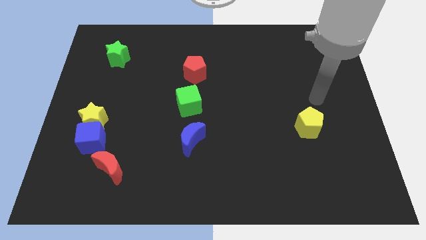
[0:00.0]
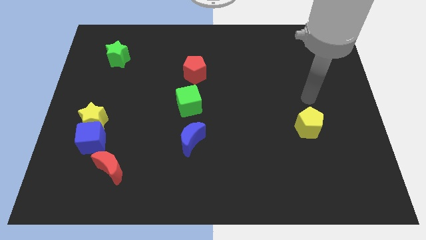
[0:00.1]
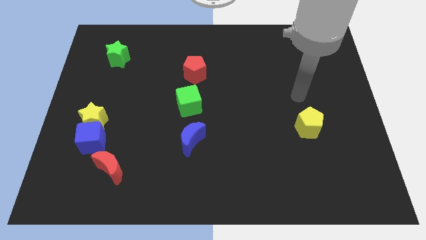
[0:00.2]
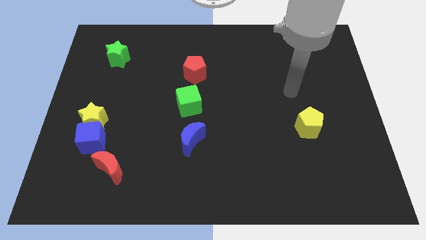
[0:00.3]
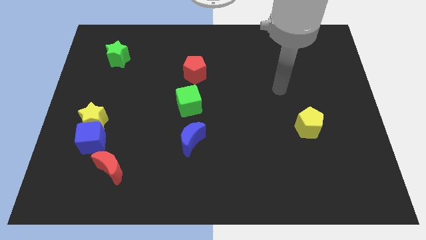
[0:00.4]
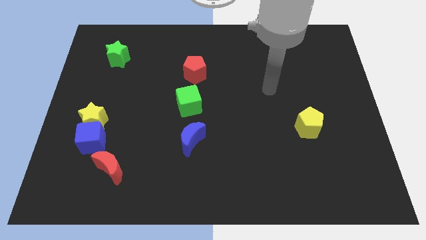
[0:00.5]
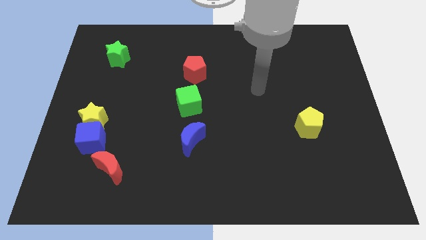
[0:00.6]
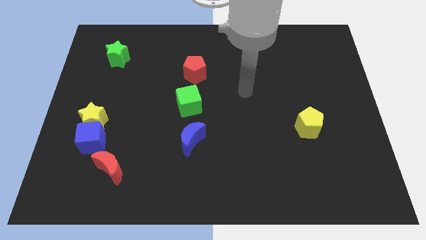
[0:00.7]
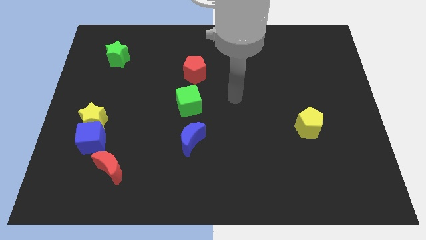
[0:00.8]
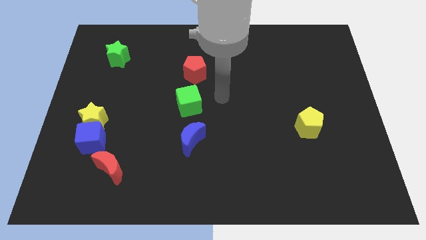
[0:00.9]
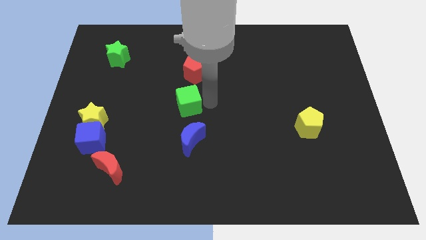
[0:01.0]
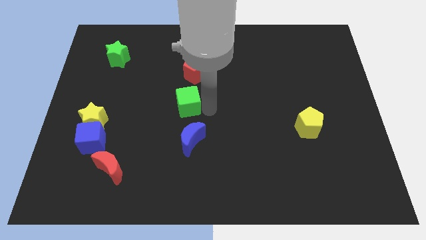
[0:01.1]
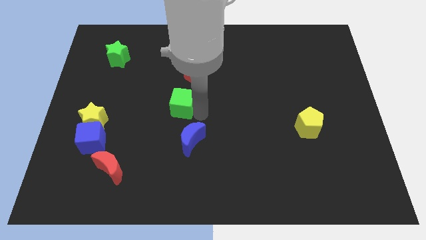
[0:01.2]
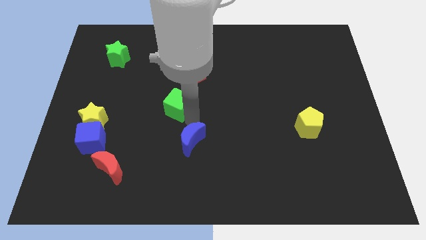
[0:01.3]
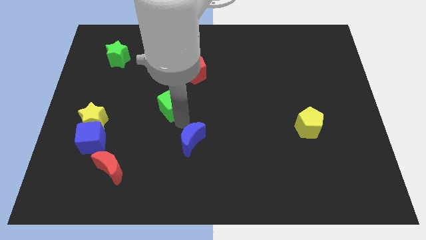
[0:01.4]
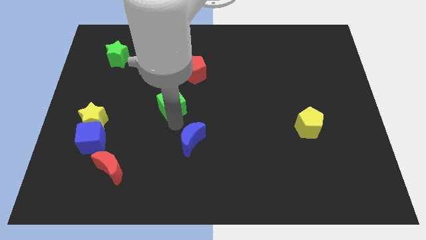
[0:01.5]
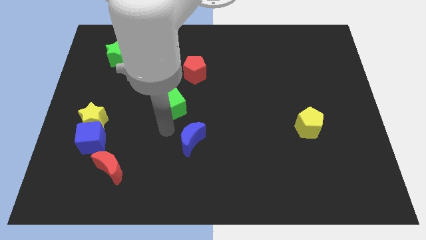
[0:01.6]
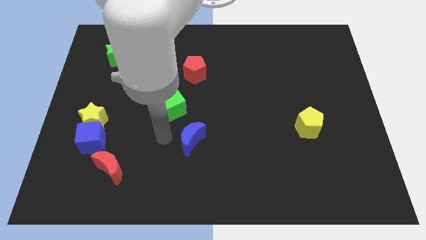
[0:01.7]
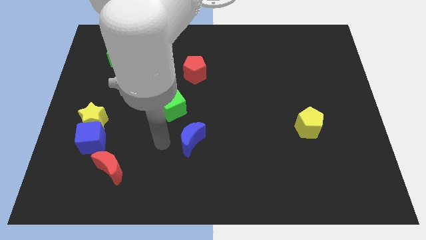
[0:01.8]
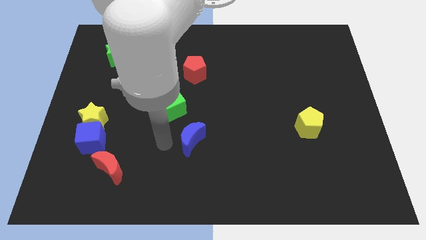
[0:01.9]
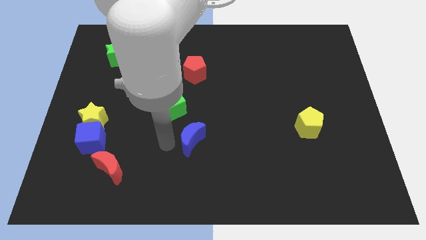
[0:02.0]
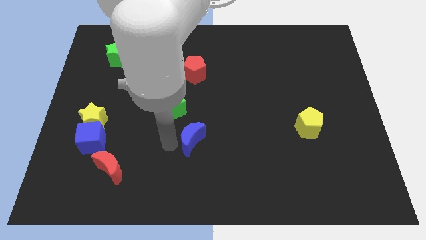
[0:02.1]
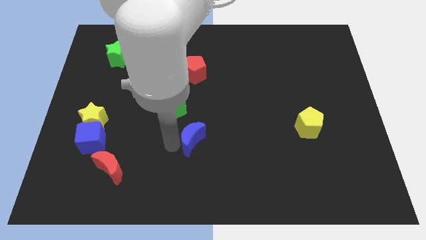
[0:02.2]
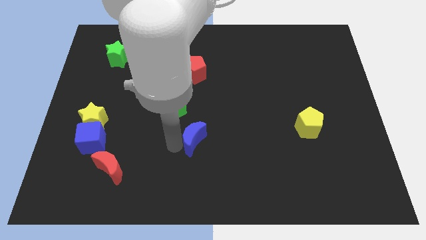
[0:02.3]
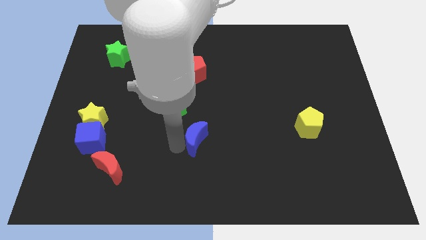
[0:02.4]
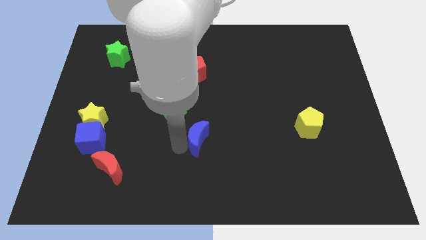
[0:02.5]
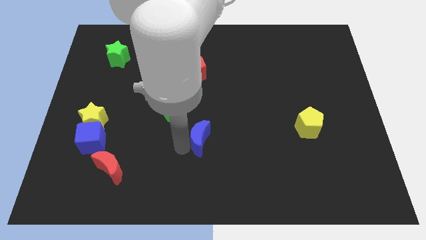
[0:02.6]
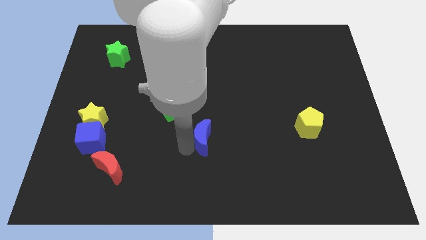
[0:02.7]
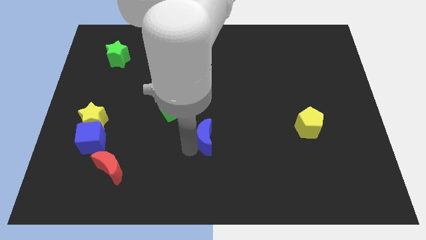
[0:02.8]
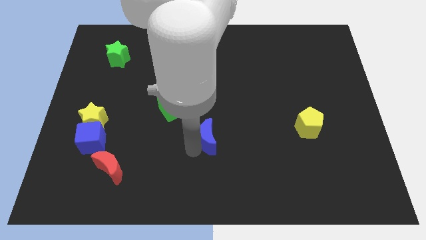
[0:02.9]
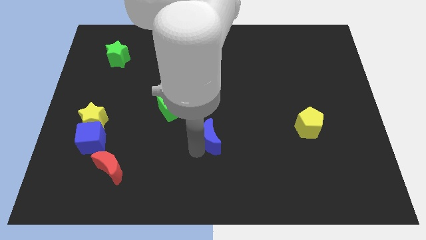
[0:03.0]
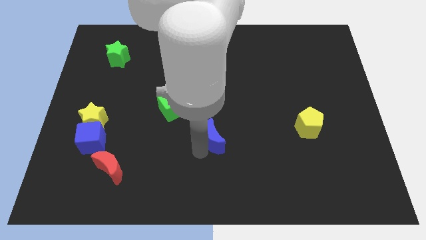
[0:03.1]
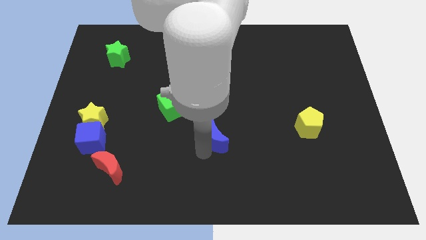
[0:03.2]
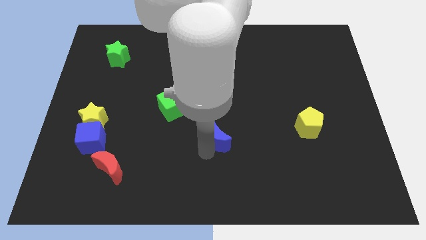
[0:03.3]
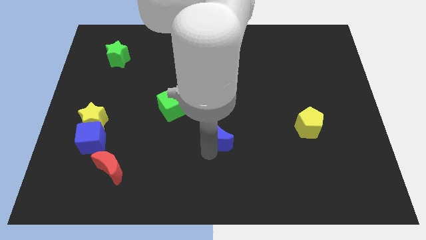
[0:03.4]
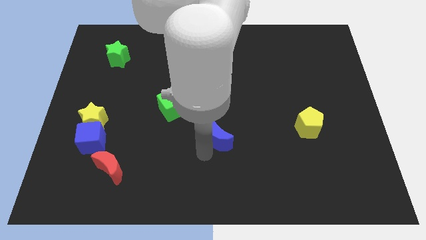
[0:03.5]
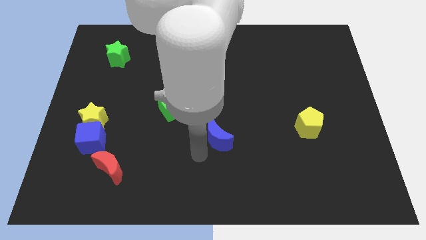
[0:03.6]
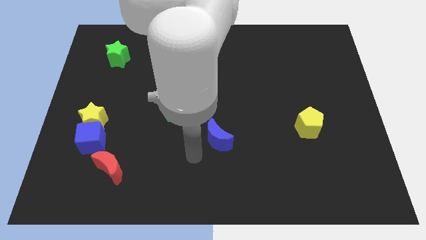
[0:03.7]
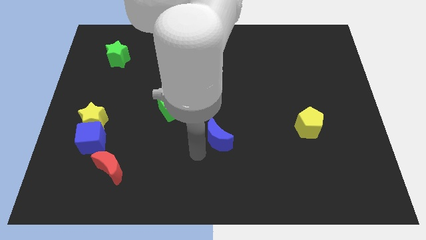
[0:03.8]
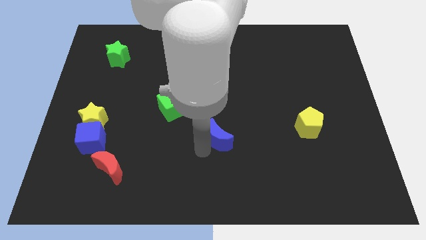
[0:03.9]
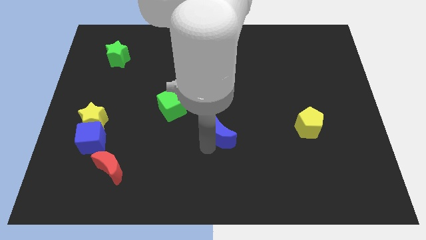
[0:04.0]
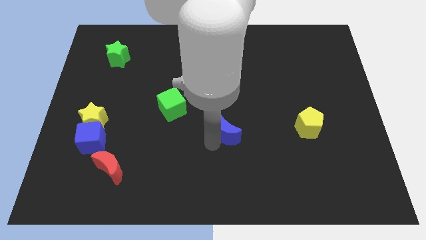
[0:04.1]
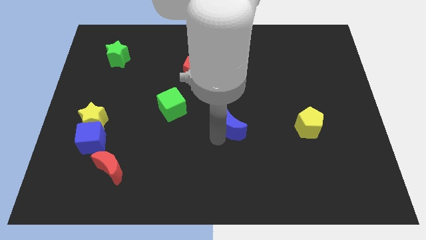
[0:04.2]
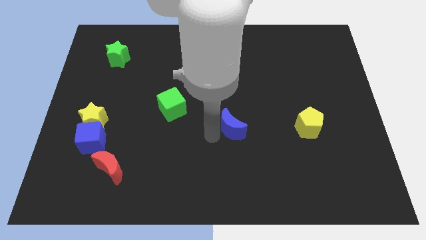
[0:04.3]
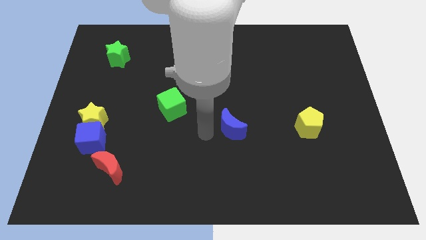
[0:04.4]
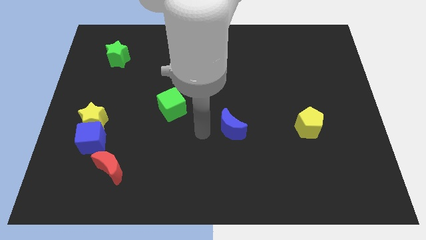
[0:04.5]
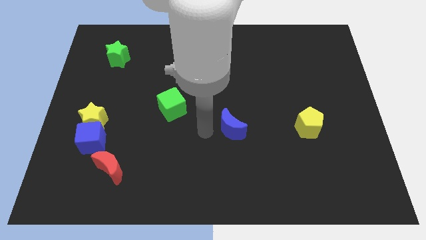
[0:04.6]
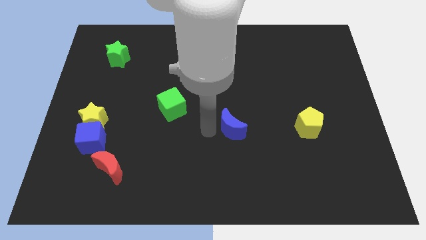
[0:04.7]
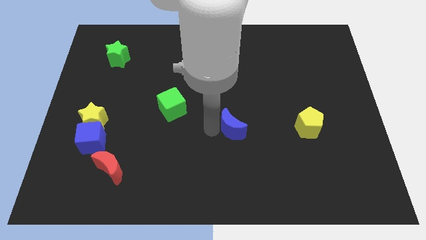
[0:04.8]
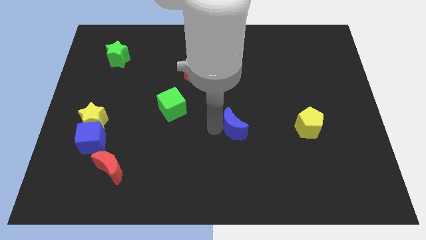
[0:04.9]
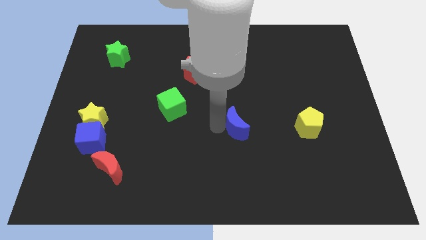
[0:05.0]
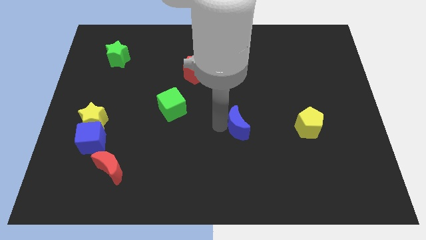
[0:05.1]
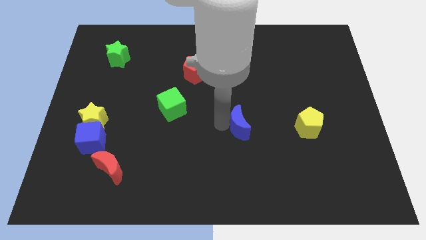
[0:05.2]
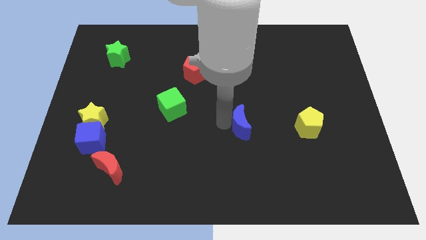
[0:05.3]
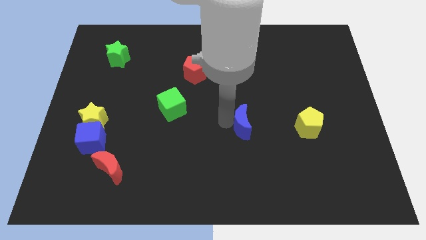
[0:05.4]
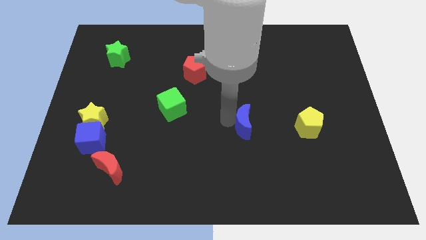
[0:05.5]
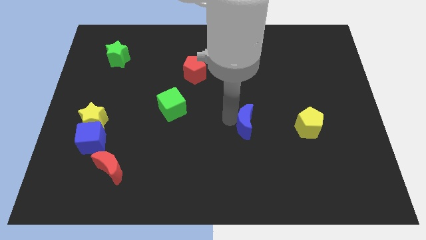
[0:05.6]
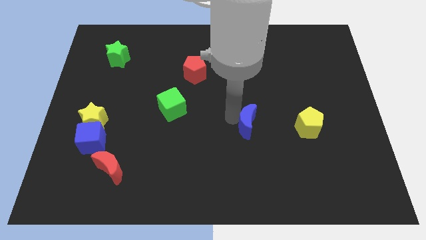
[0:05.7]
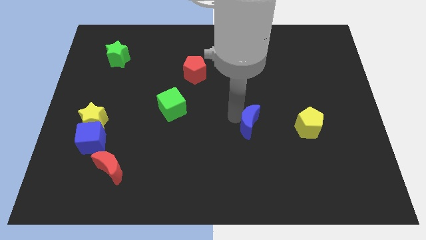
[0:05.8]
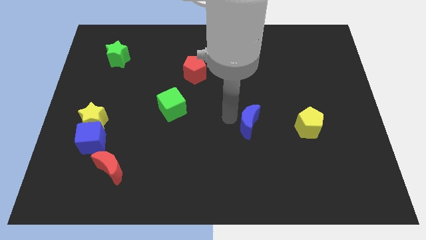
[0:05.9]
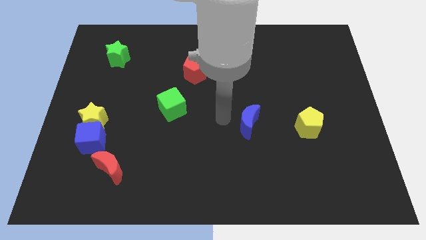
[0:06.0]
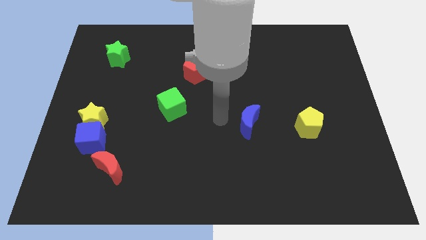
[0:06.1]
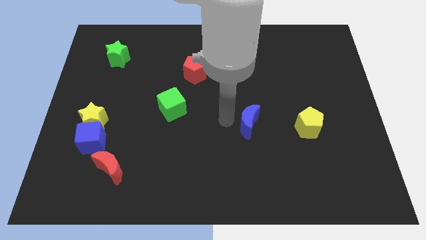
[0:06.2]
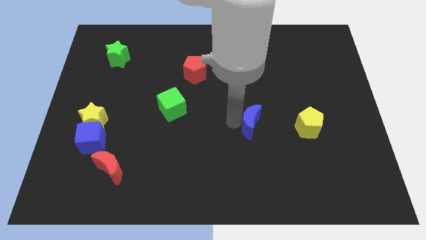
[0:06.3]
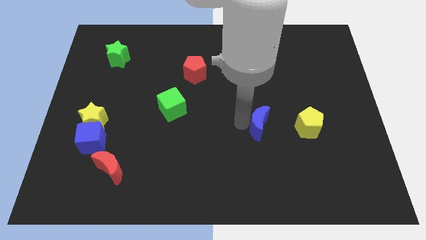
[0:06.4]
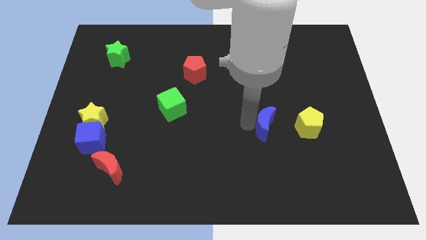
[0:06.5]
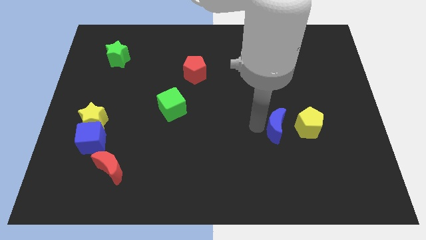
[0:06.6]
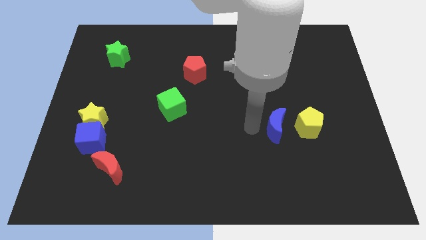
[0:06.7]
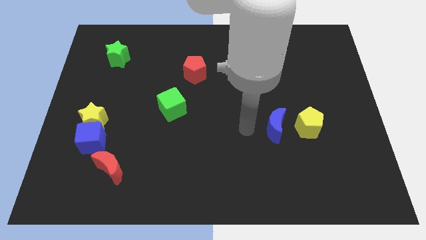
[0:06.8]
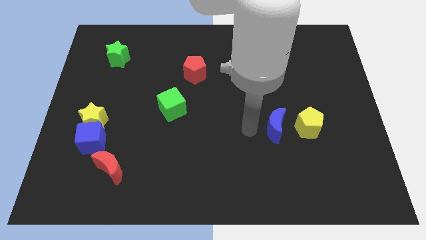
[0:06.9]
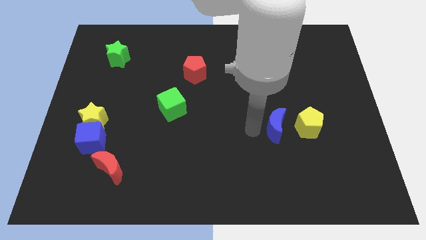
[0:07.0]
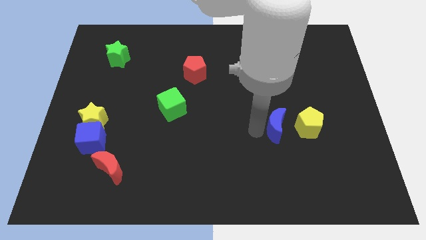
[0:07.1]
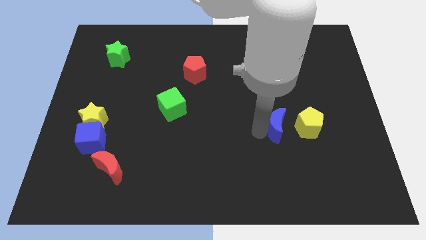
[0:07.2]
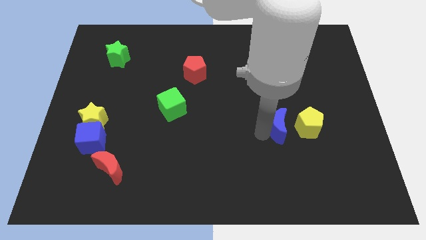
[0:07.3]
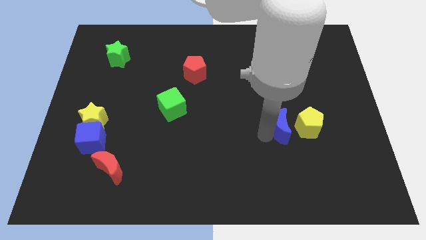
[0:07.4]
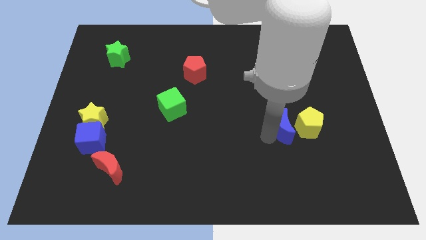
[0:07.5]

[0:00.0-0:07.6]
push the blue moon towards the yellow pentagon
